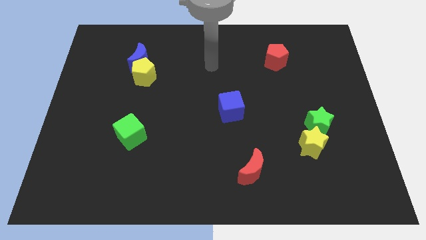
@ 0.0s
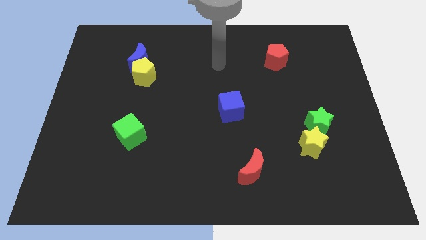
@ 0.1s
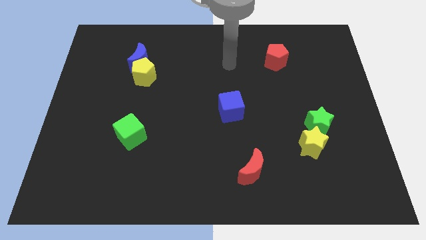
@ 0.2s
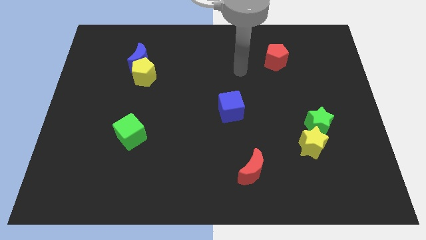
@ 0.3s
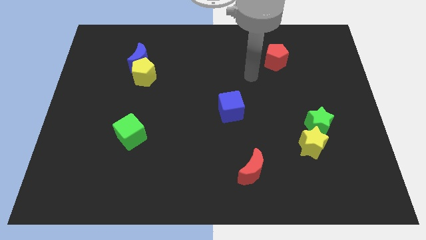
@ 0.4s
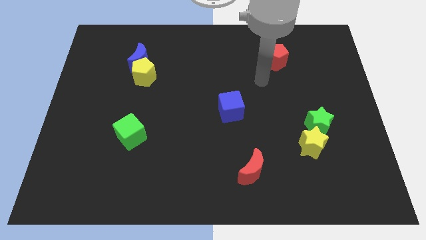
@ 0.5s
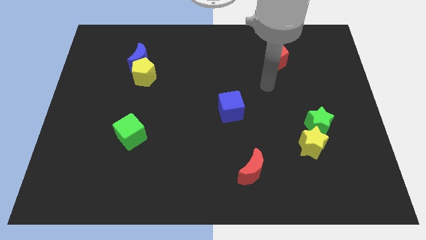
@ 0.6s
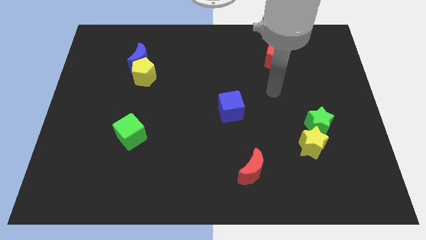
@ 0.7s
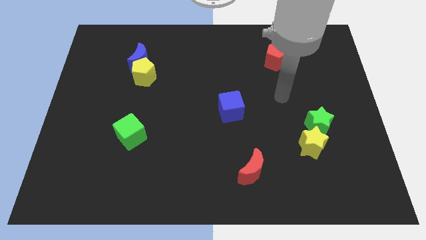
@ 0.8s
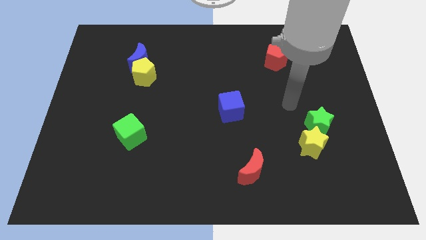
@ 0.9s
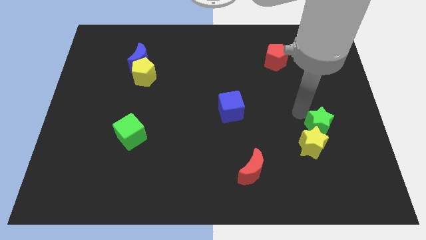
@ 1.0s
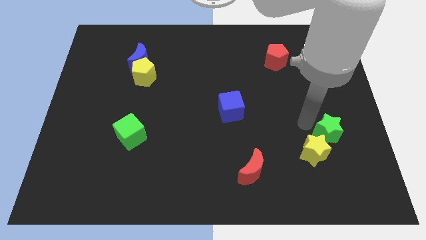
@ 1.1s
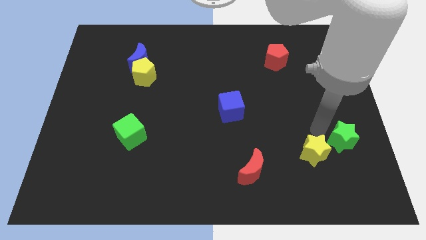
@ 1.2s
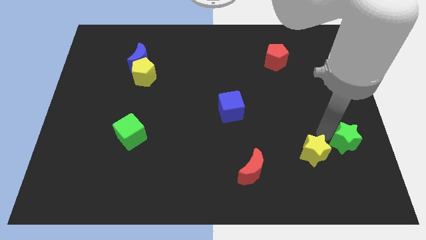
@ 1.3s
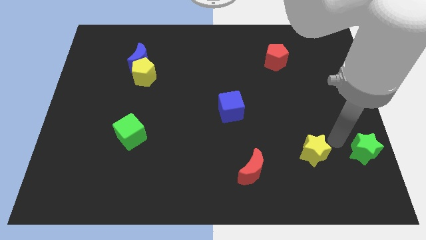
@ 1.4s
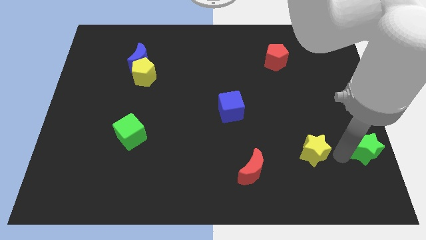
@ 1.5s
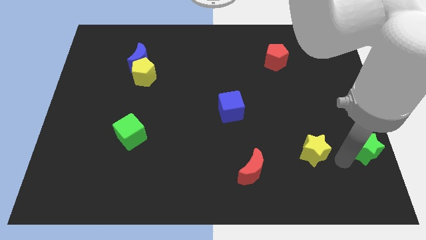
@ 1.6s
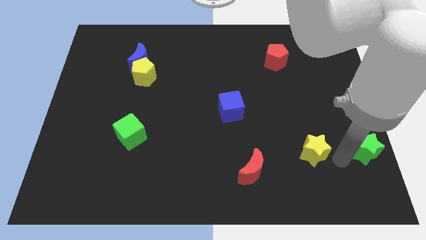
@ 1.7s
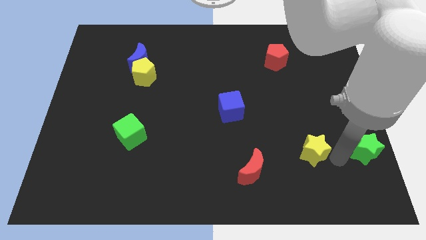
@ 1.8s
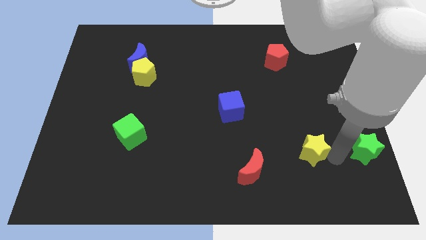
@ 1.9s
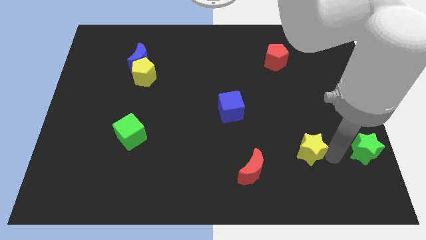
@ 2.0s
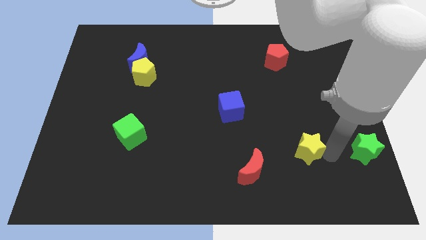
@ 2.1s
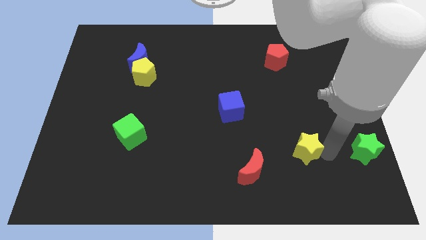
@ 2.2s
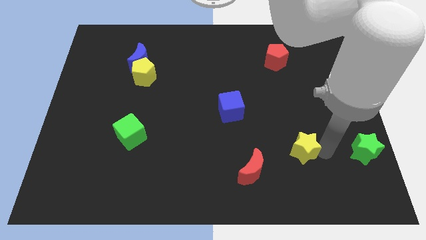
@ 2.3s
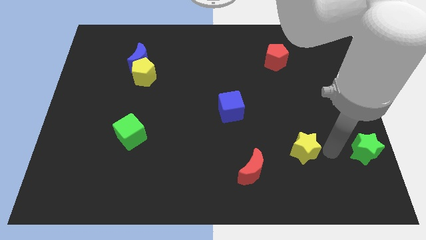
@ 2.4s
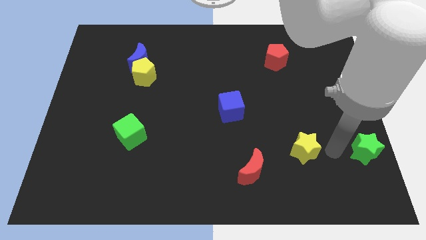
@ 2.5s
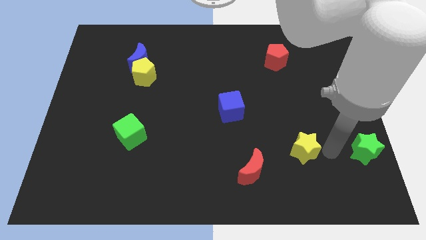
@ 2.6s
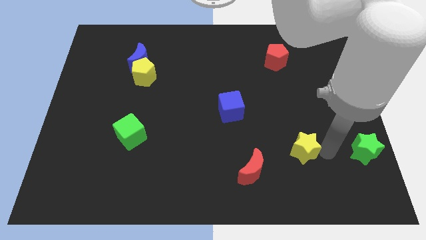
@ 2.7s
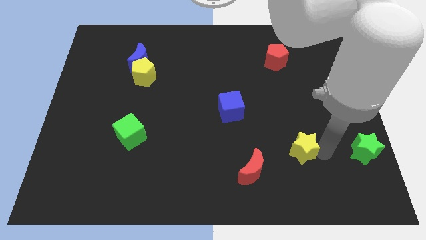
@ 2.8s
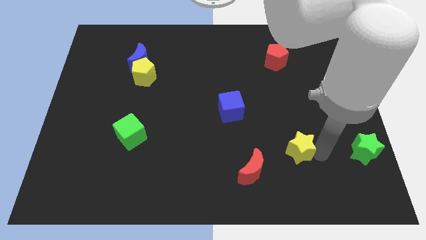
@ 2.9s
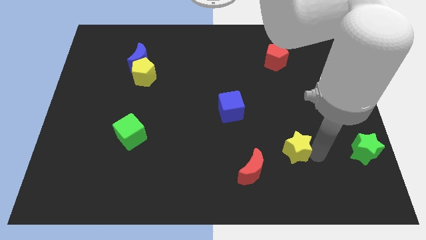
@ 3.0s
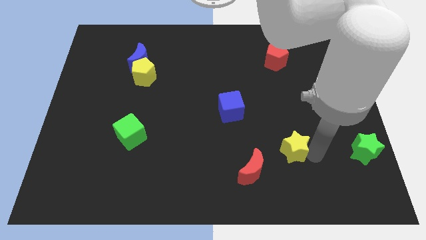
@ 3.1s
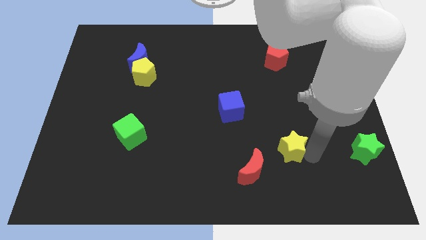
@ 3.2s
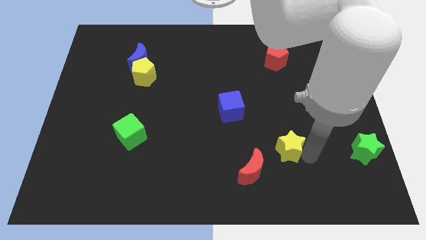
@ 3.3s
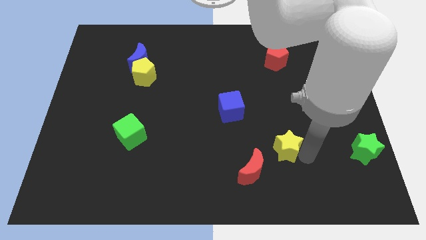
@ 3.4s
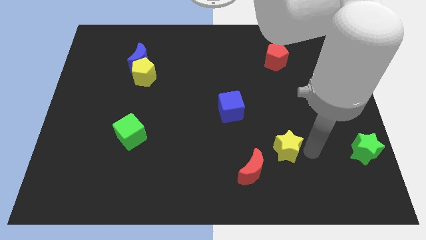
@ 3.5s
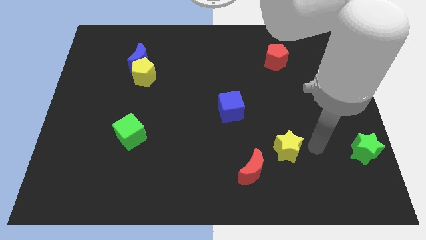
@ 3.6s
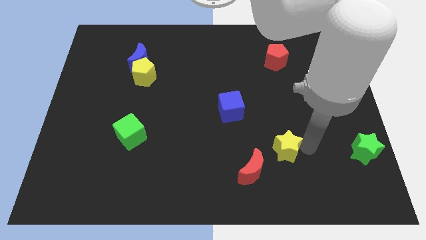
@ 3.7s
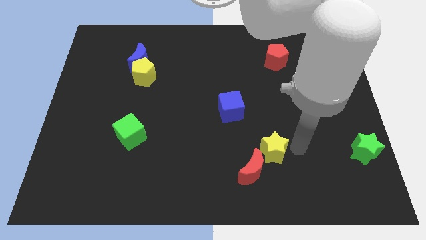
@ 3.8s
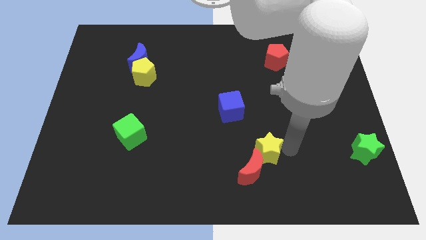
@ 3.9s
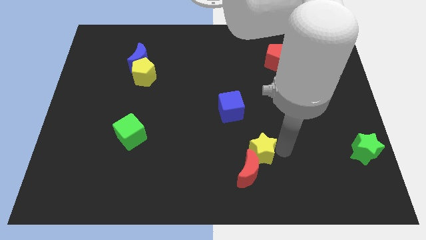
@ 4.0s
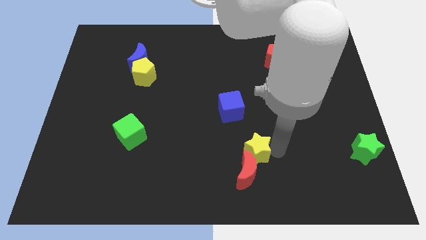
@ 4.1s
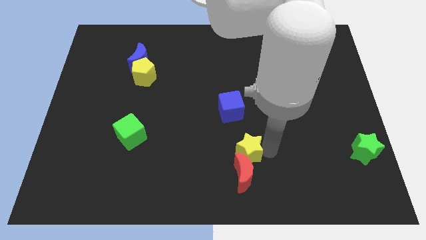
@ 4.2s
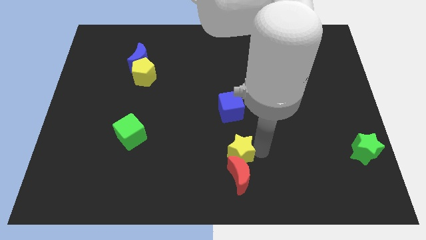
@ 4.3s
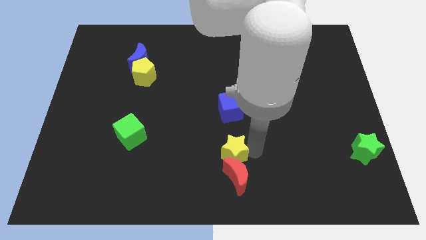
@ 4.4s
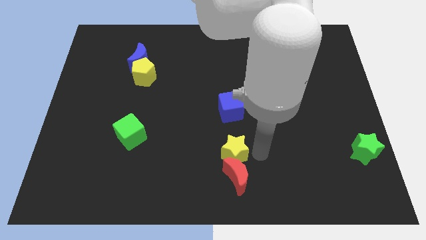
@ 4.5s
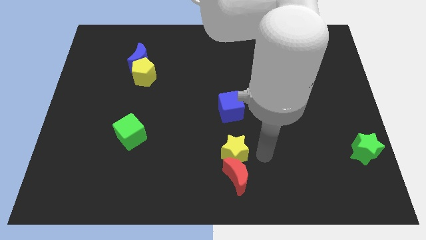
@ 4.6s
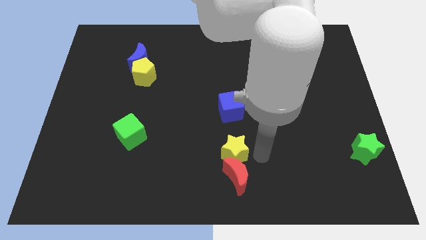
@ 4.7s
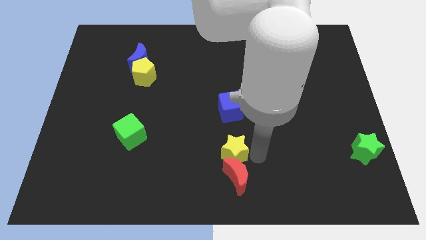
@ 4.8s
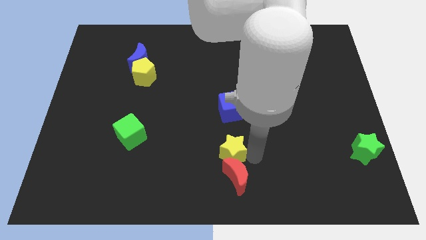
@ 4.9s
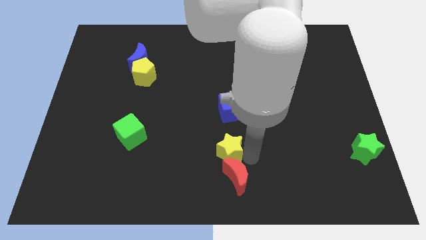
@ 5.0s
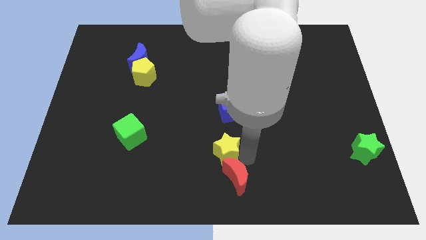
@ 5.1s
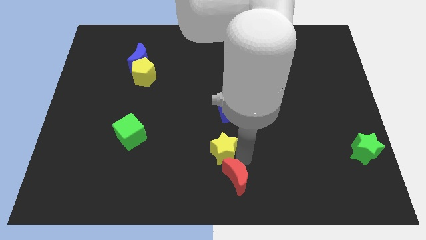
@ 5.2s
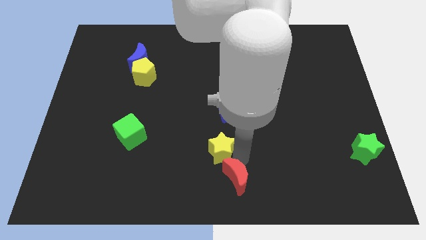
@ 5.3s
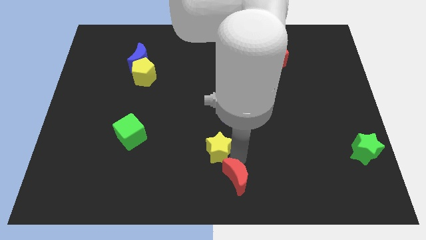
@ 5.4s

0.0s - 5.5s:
push the yellow star left

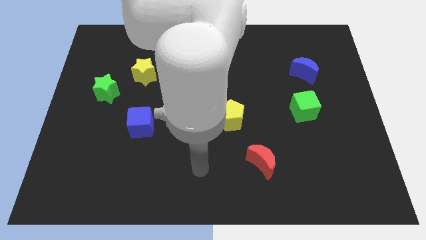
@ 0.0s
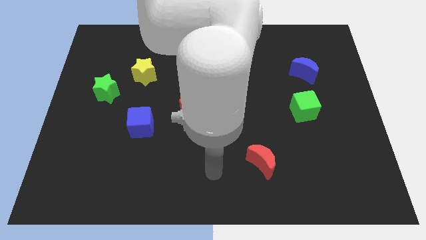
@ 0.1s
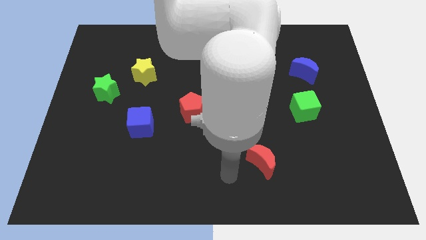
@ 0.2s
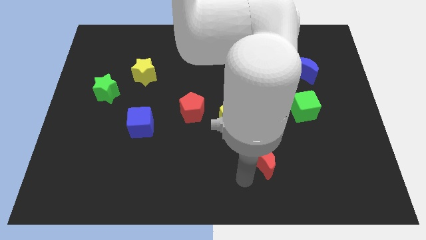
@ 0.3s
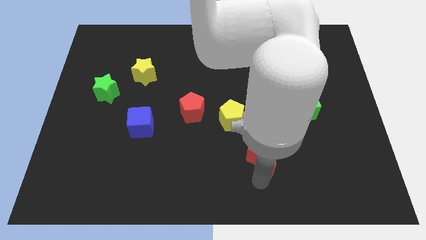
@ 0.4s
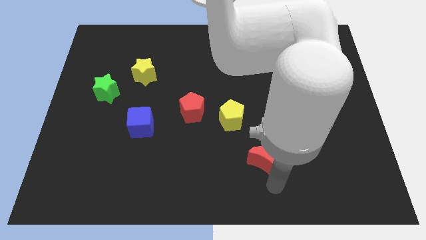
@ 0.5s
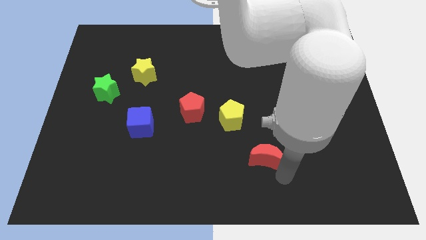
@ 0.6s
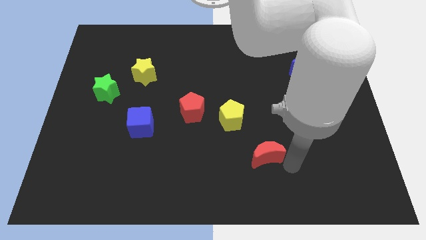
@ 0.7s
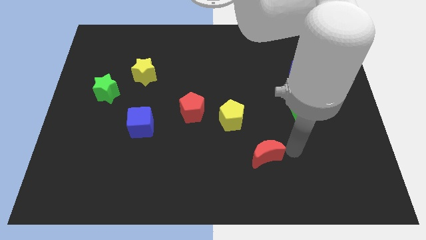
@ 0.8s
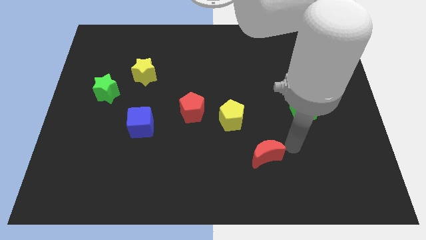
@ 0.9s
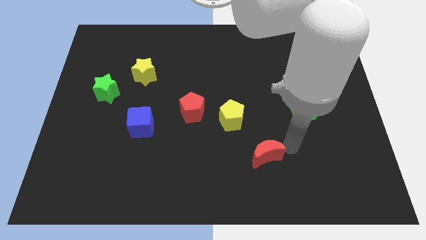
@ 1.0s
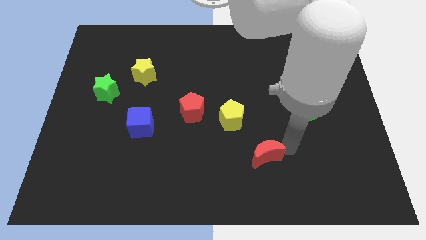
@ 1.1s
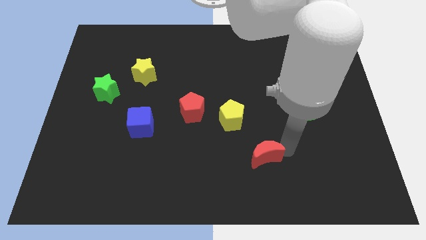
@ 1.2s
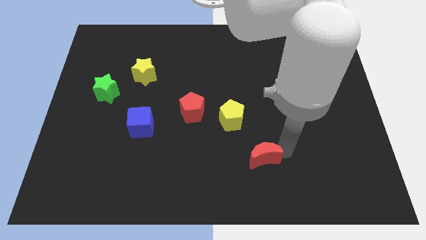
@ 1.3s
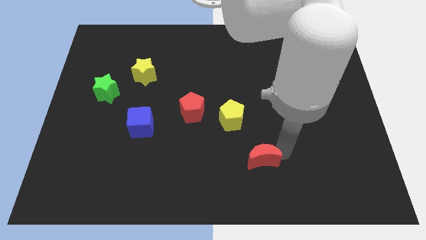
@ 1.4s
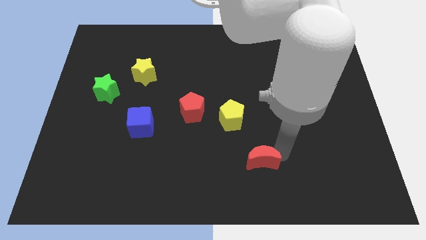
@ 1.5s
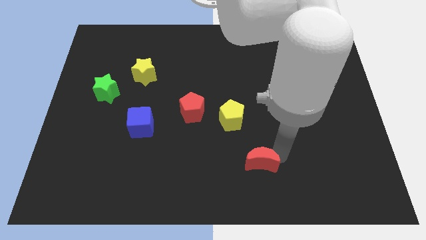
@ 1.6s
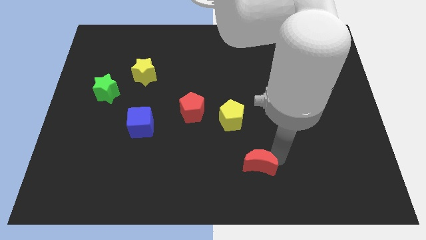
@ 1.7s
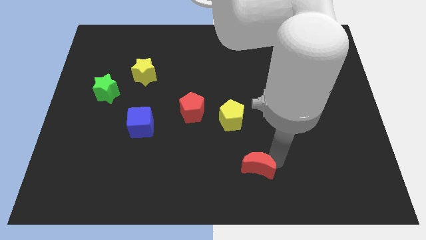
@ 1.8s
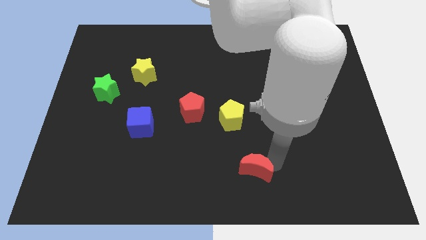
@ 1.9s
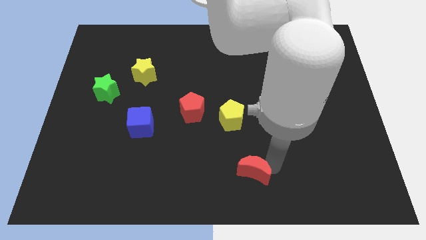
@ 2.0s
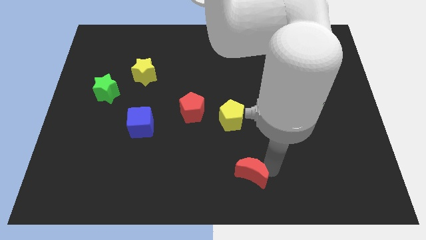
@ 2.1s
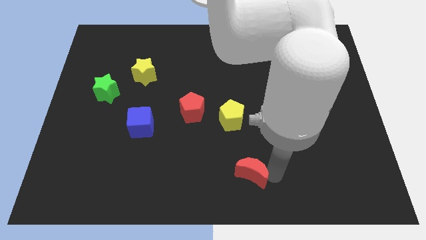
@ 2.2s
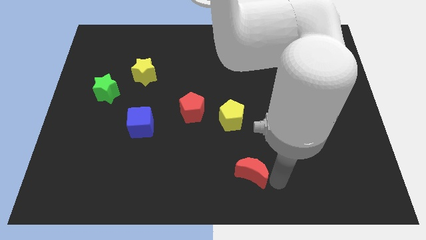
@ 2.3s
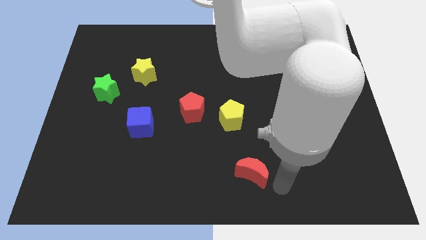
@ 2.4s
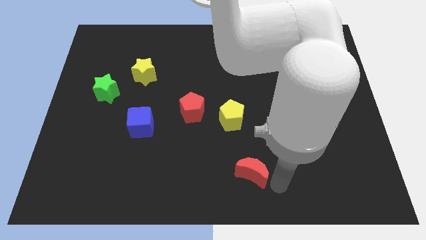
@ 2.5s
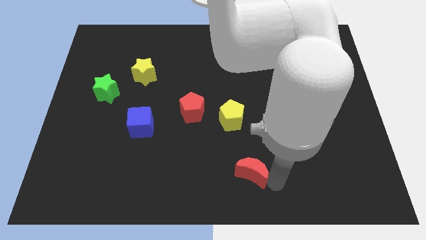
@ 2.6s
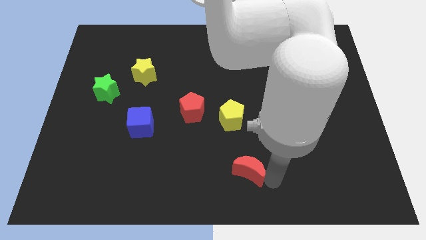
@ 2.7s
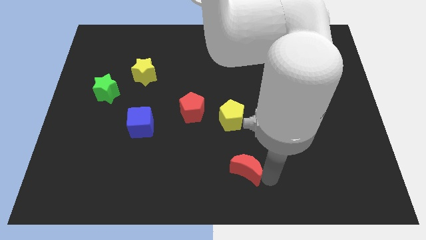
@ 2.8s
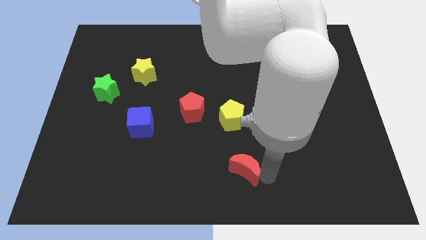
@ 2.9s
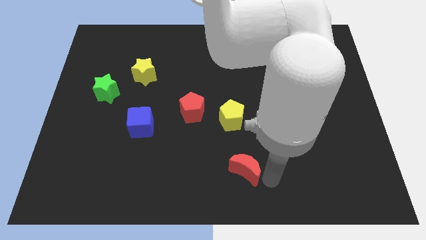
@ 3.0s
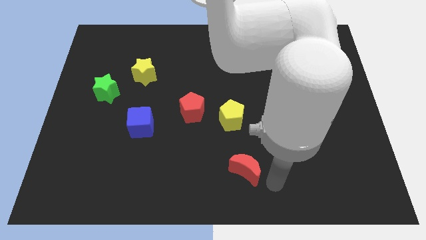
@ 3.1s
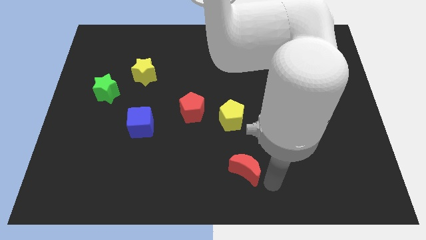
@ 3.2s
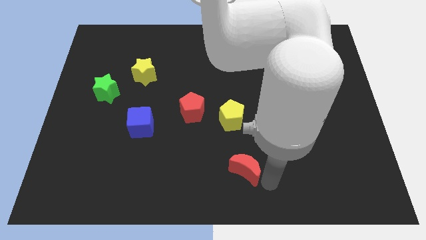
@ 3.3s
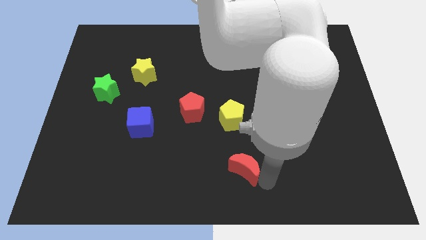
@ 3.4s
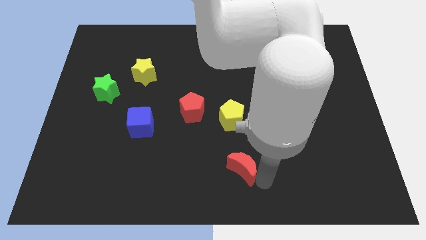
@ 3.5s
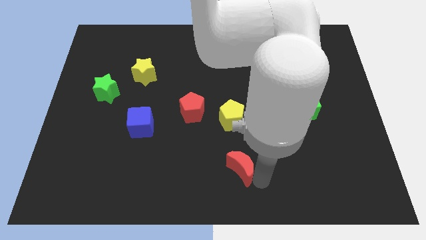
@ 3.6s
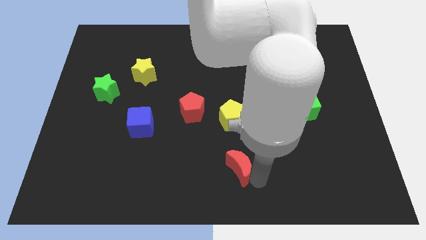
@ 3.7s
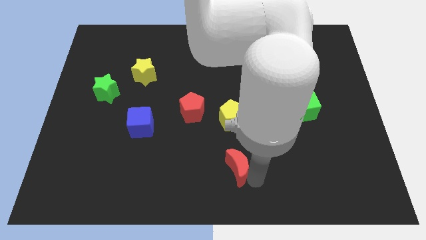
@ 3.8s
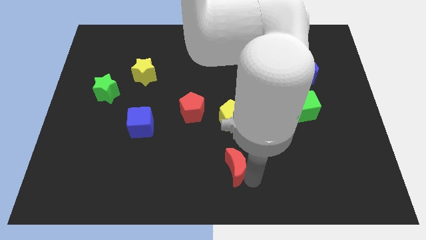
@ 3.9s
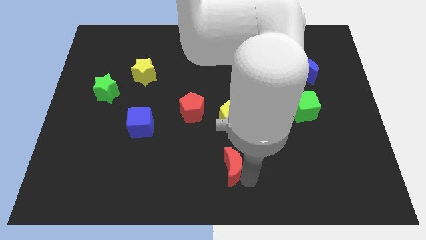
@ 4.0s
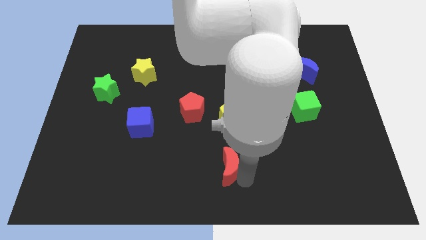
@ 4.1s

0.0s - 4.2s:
slightly slide the red moon to the left
